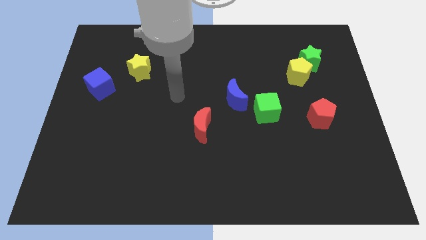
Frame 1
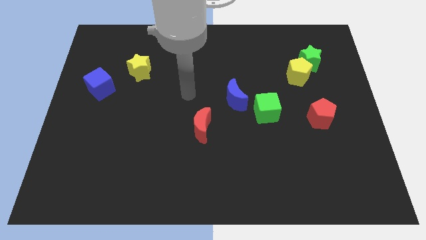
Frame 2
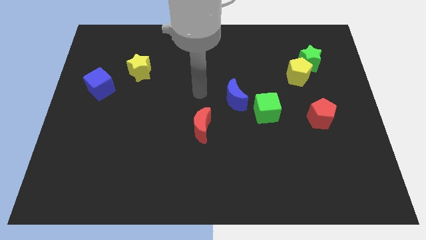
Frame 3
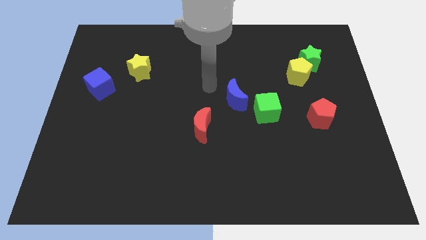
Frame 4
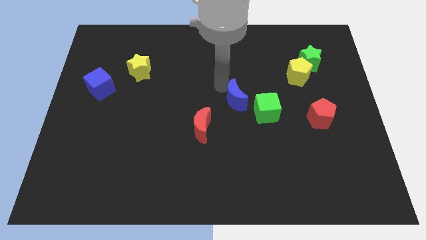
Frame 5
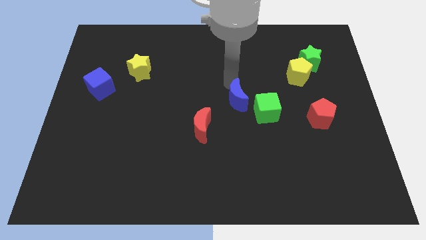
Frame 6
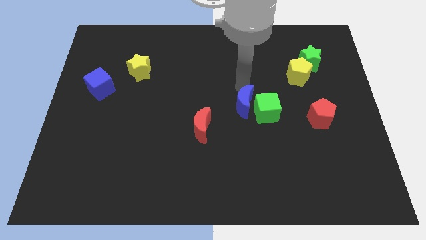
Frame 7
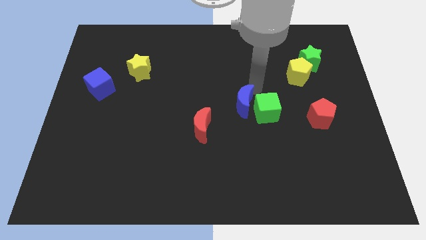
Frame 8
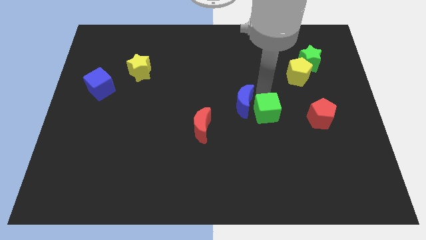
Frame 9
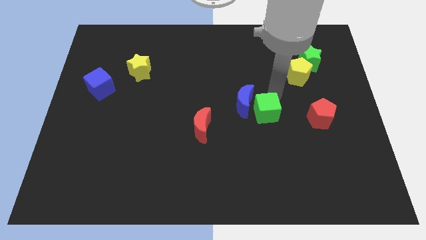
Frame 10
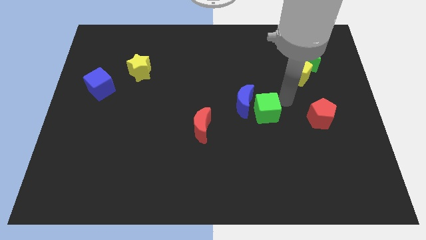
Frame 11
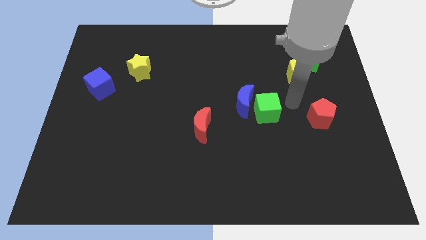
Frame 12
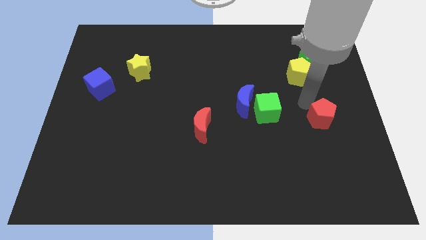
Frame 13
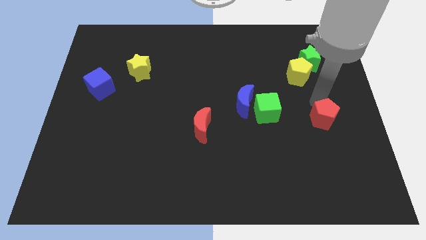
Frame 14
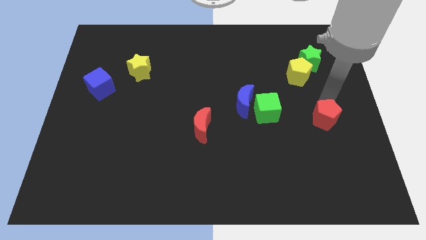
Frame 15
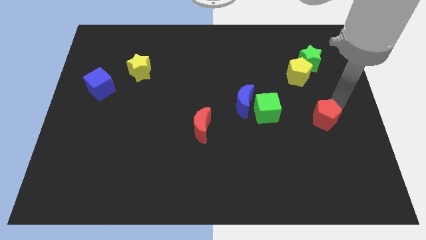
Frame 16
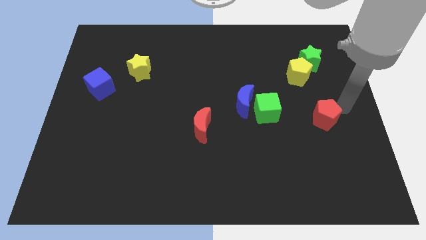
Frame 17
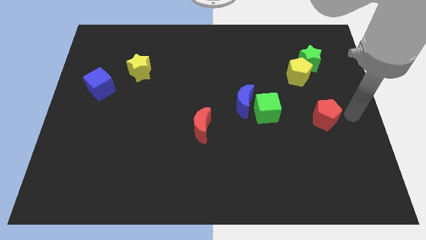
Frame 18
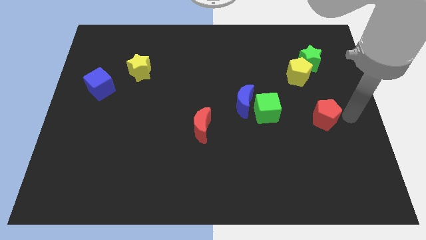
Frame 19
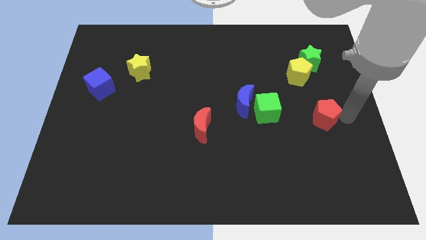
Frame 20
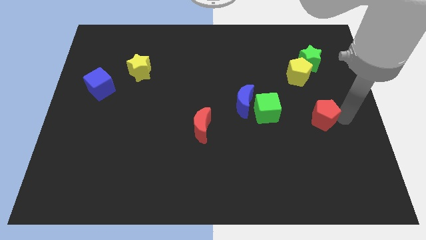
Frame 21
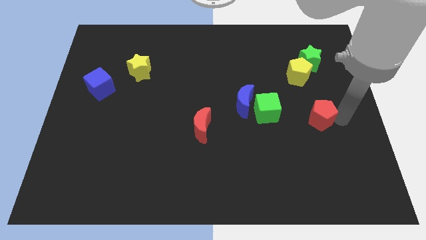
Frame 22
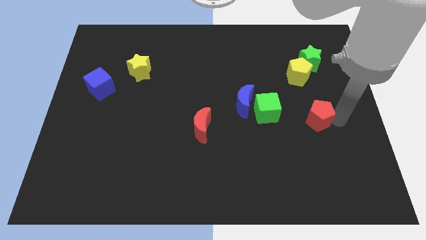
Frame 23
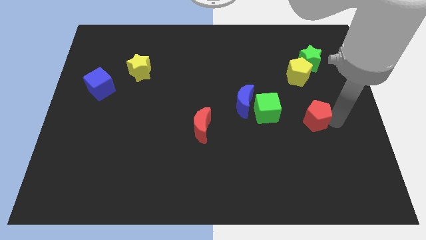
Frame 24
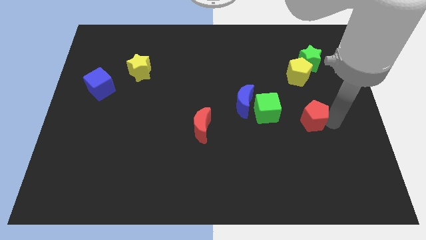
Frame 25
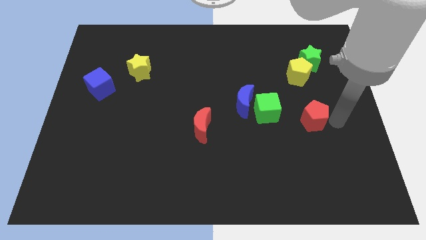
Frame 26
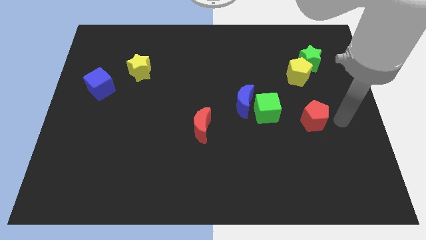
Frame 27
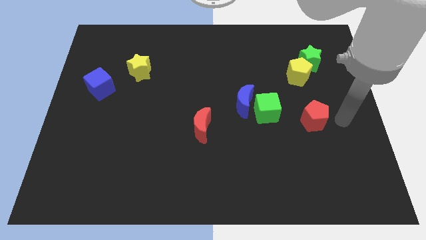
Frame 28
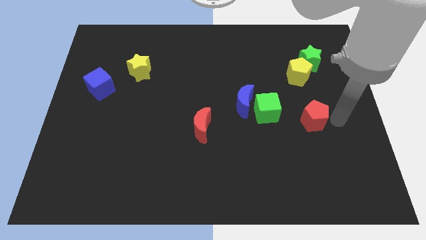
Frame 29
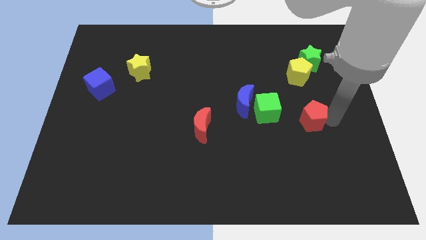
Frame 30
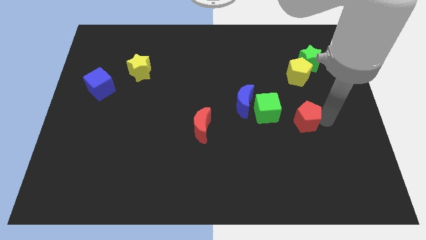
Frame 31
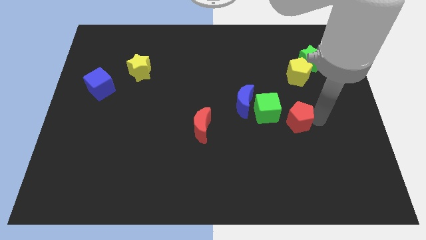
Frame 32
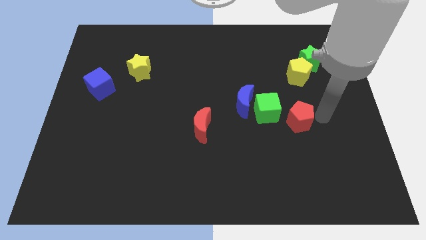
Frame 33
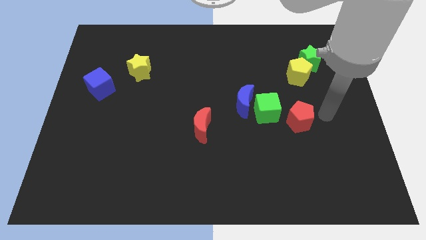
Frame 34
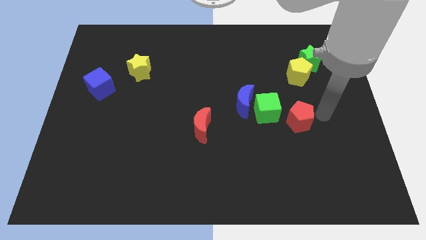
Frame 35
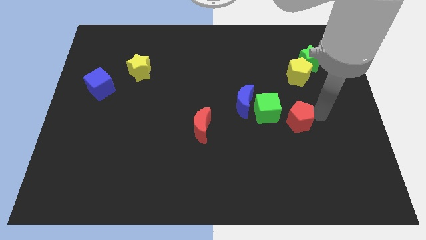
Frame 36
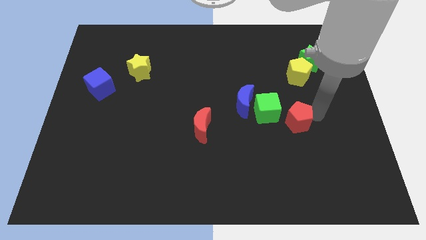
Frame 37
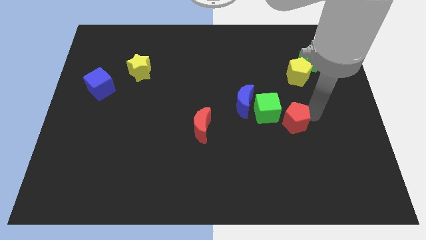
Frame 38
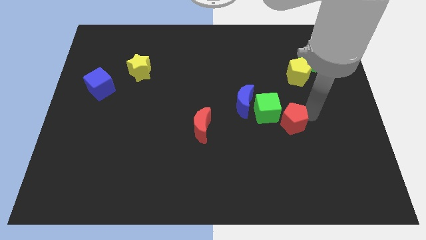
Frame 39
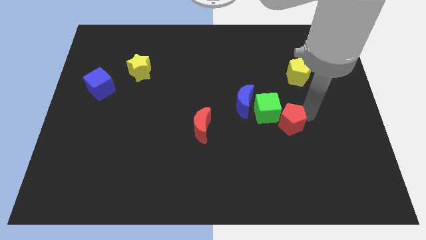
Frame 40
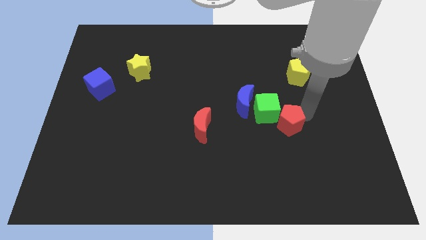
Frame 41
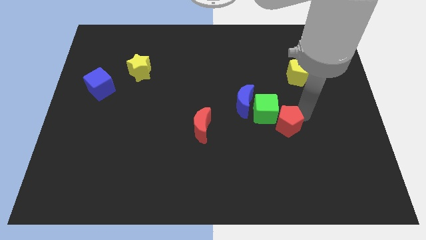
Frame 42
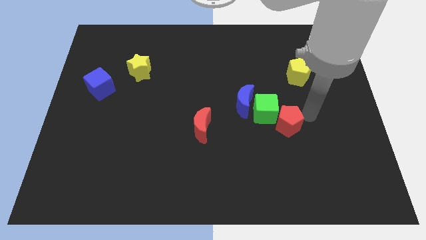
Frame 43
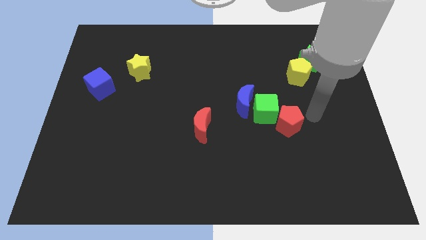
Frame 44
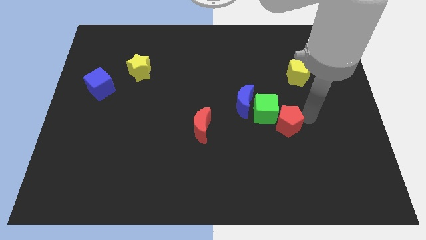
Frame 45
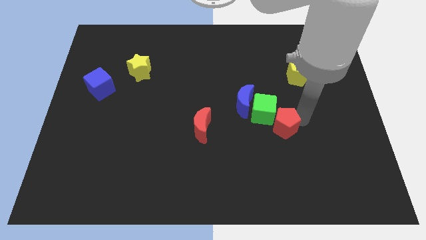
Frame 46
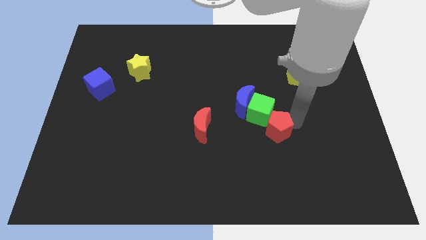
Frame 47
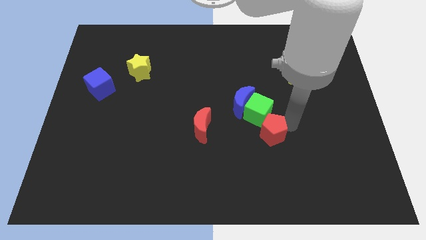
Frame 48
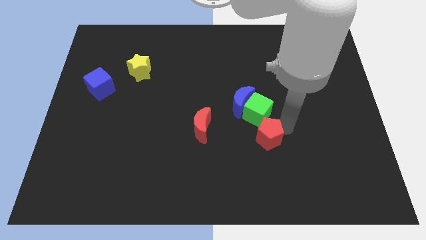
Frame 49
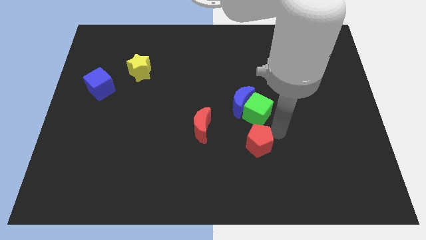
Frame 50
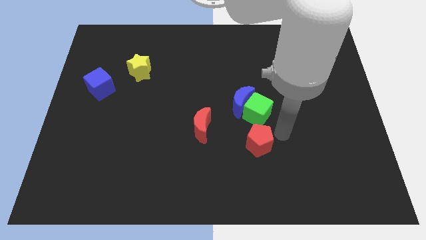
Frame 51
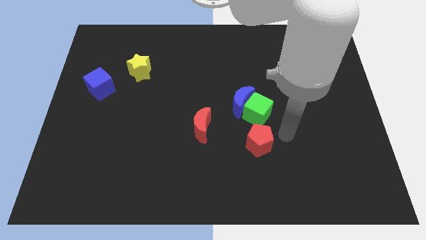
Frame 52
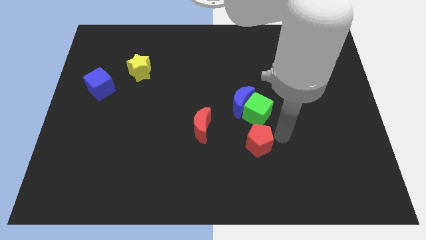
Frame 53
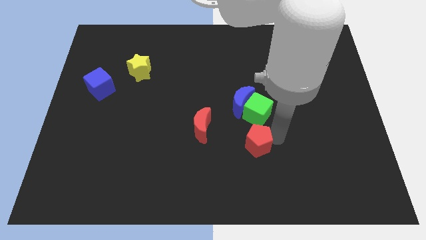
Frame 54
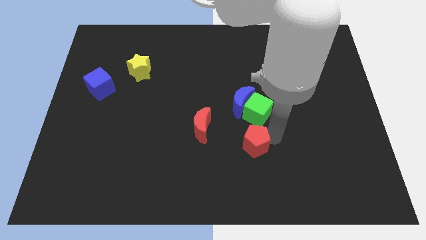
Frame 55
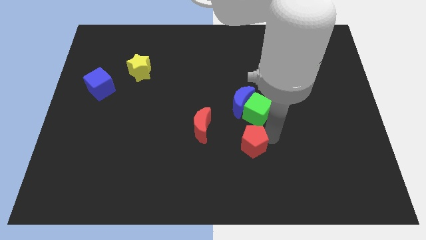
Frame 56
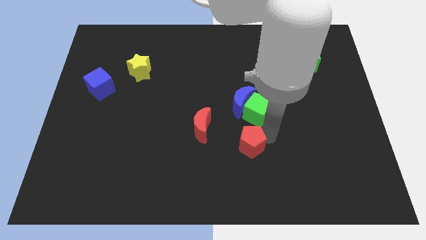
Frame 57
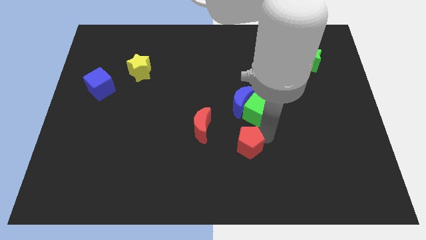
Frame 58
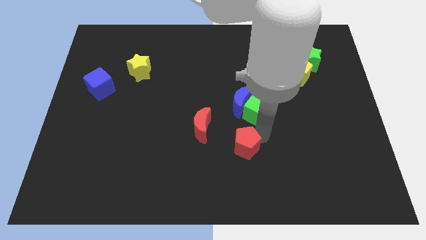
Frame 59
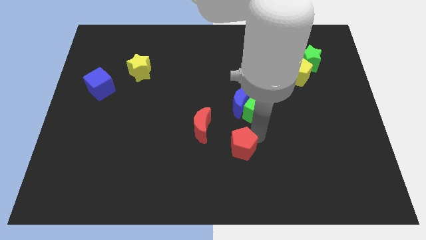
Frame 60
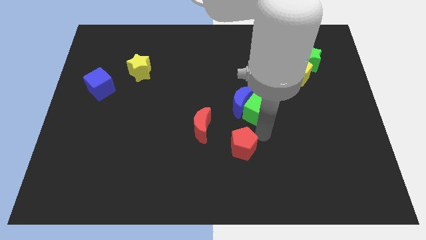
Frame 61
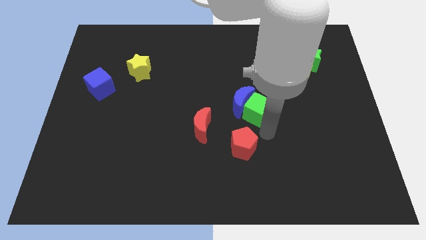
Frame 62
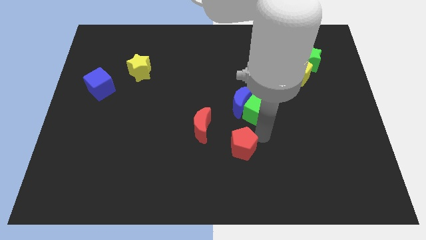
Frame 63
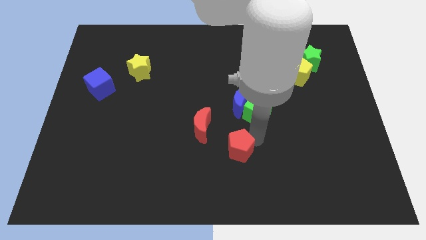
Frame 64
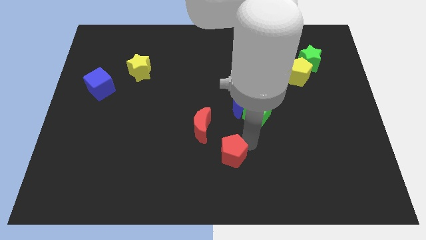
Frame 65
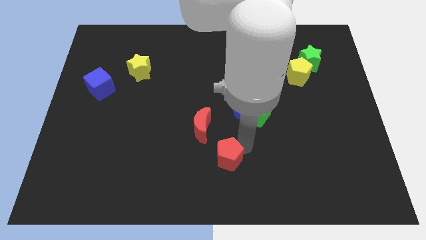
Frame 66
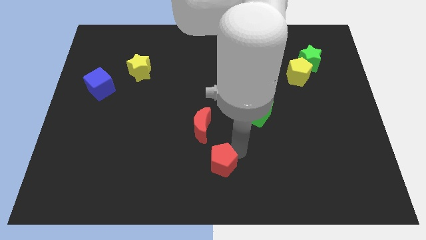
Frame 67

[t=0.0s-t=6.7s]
move the red pentagon to the bottom side of the red moon
